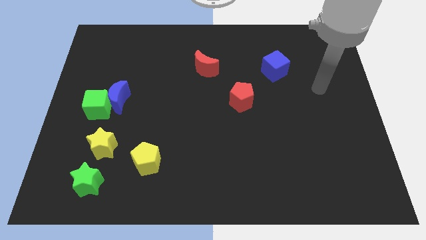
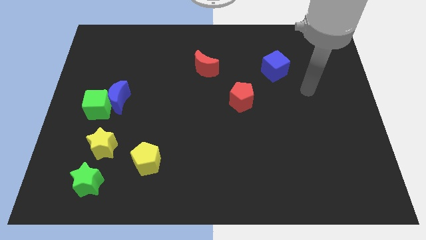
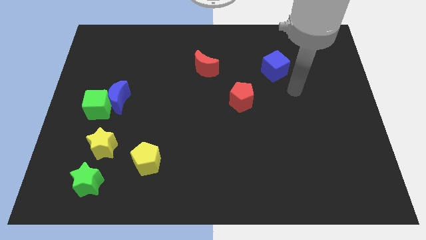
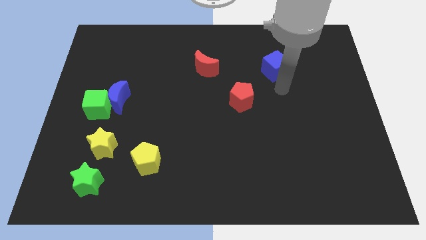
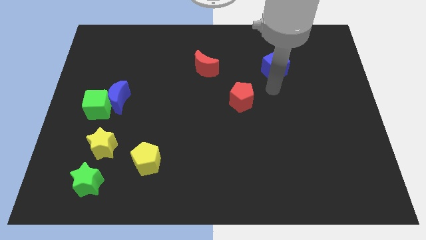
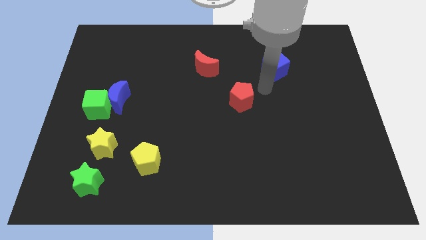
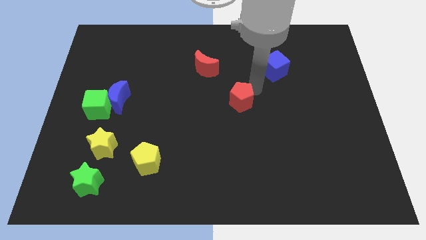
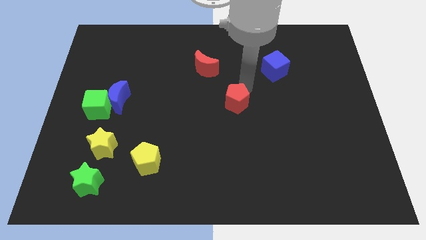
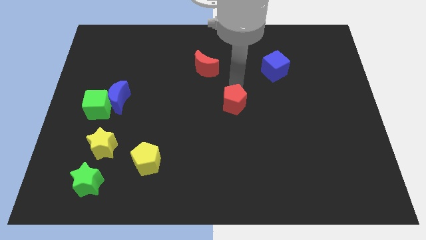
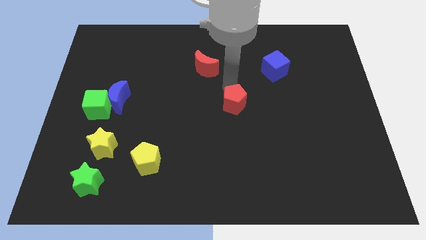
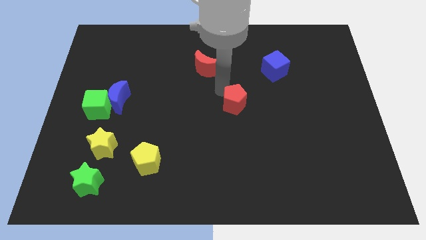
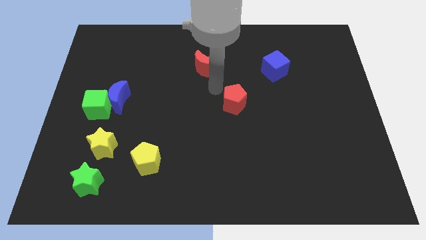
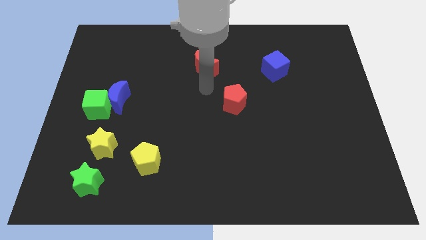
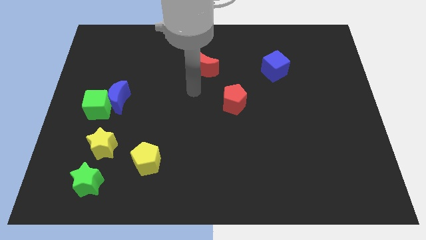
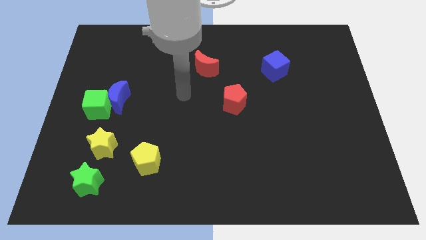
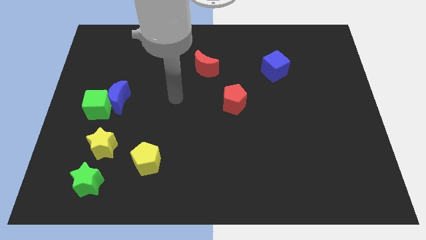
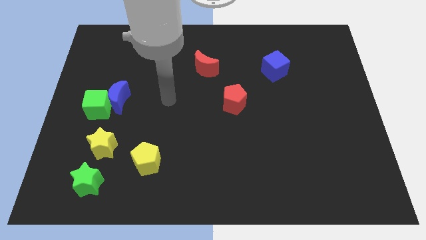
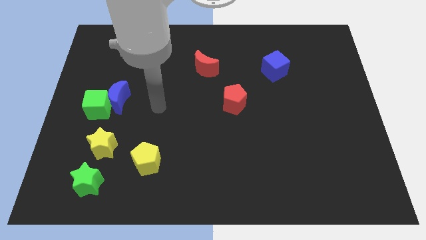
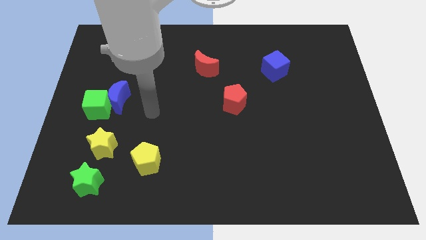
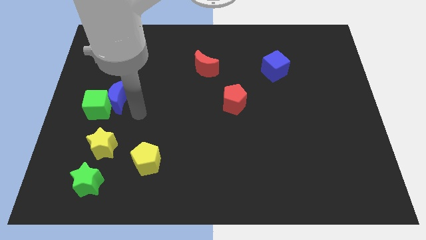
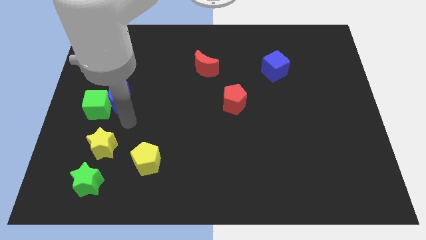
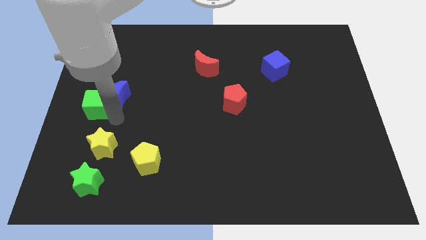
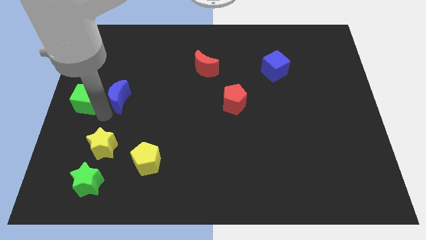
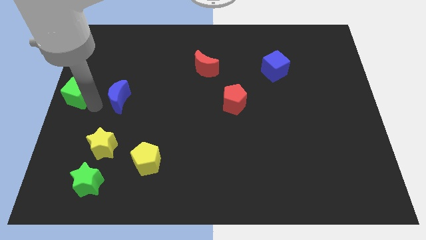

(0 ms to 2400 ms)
separate the blue moon from the green cube

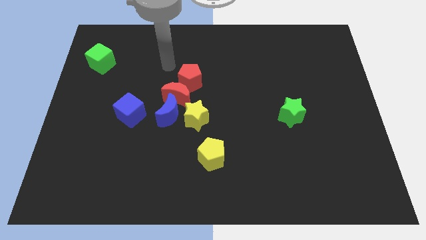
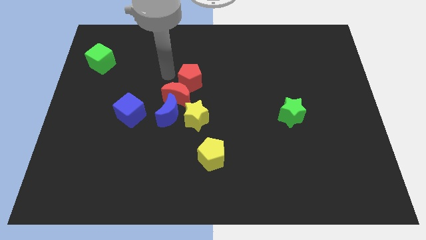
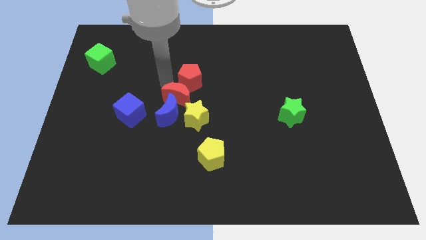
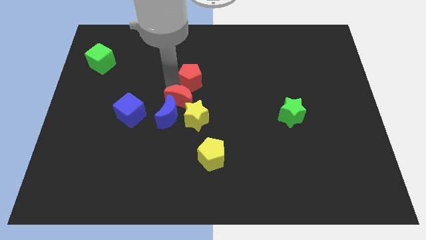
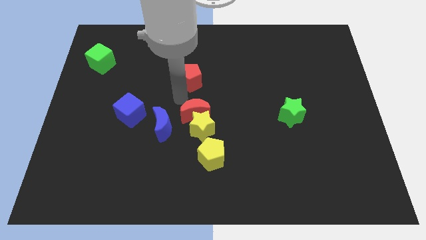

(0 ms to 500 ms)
separate the red pentagon from the red moon

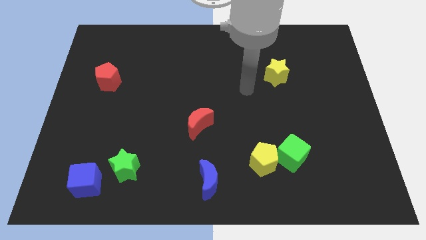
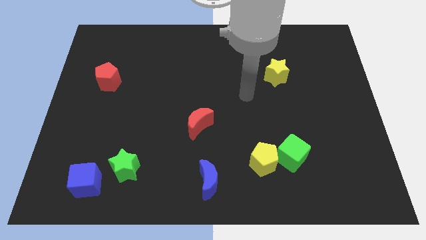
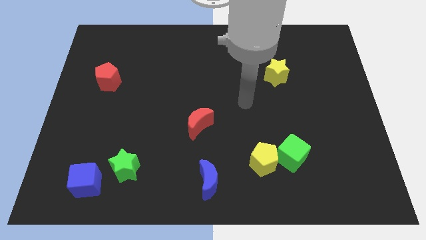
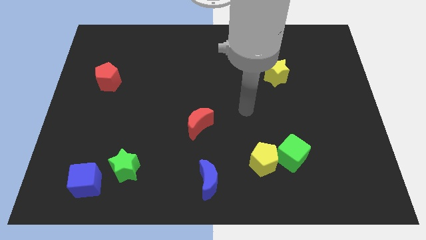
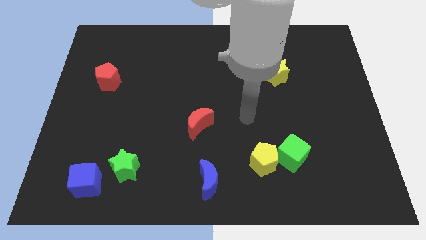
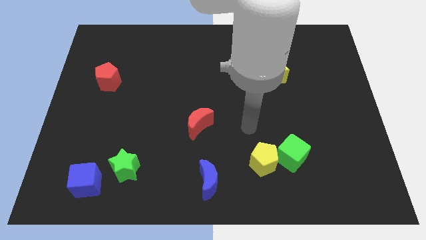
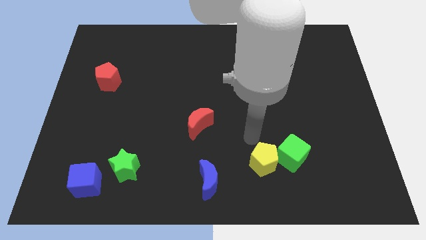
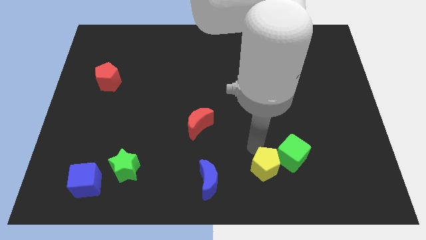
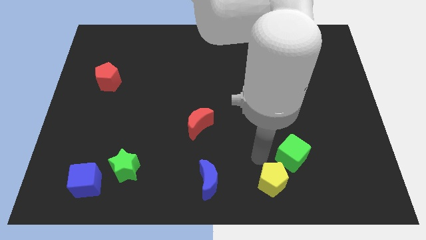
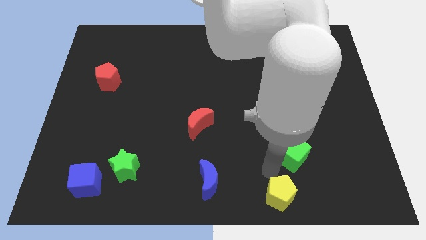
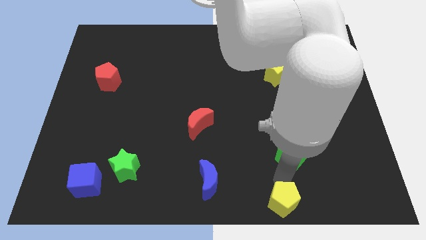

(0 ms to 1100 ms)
move the green cube away from the yellow pentagon

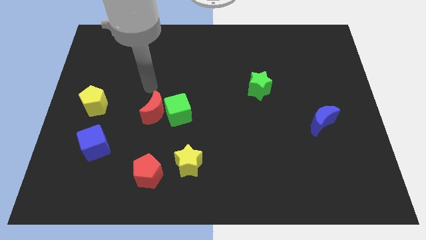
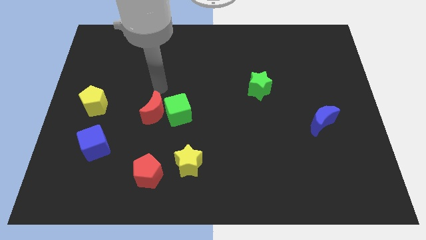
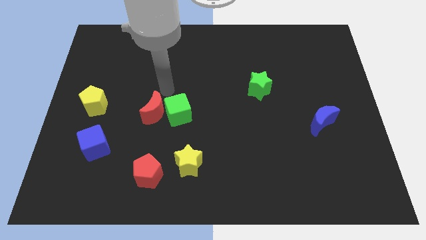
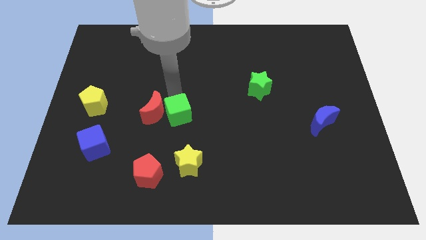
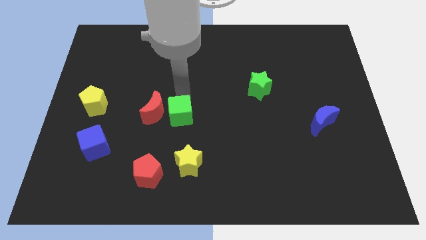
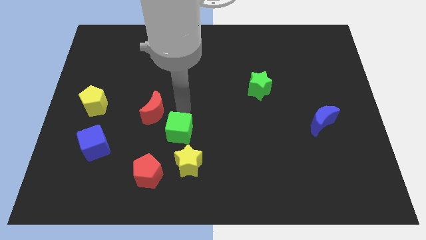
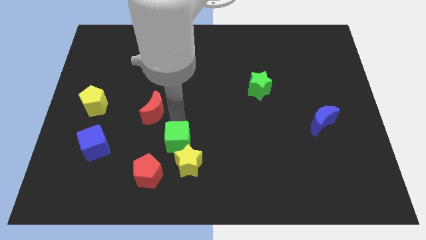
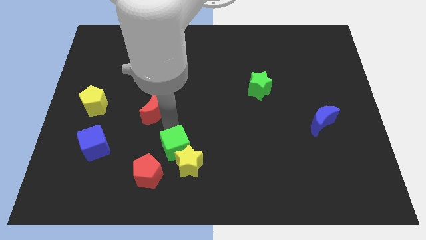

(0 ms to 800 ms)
move the red moon away from the green cube

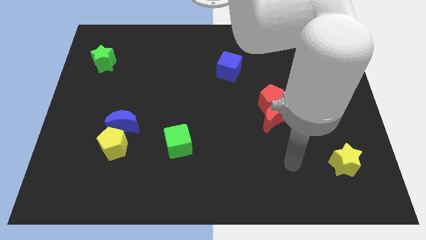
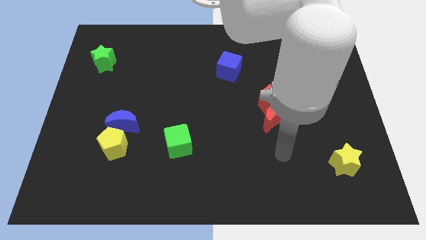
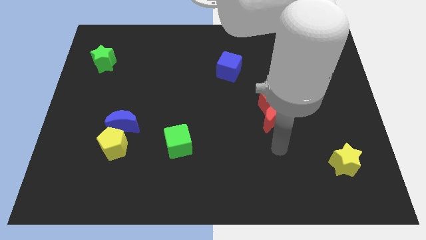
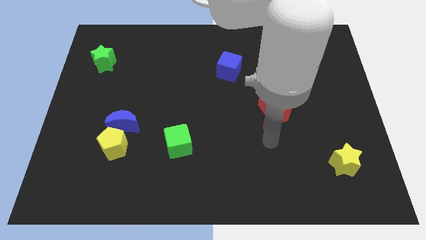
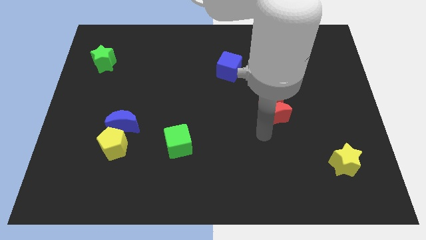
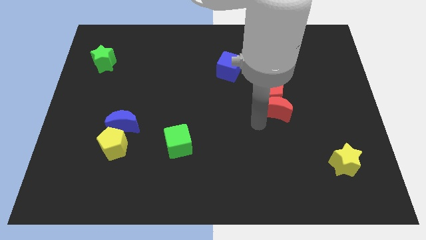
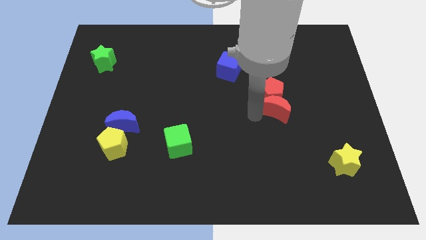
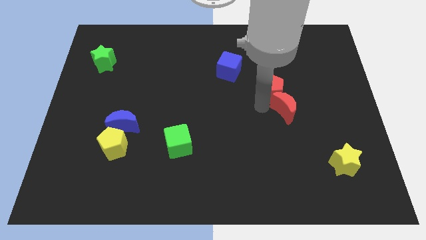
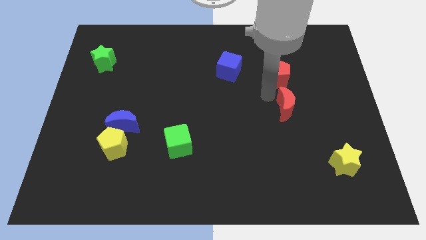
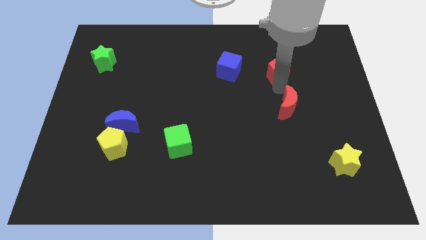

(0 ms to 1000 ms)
pull the red moon apart from the red pentagon

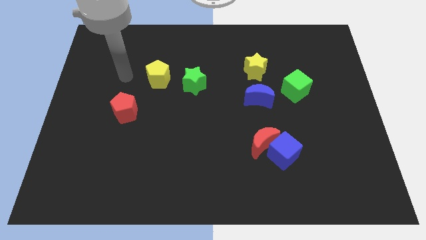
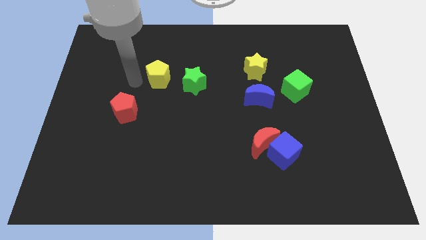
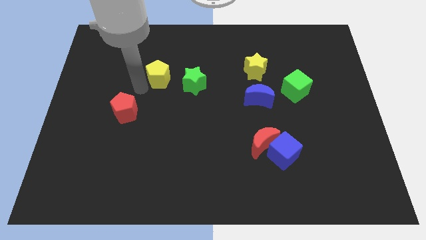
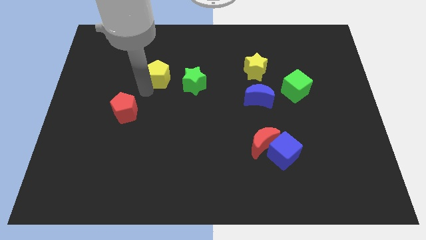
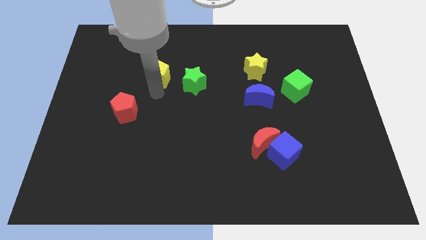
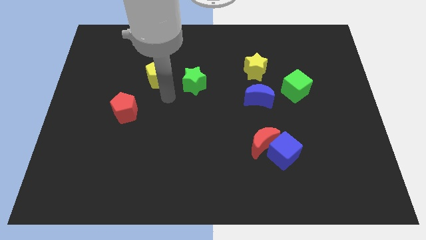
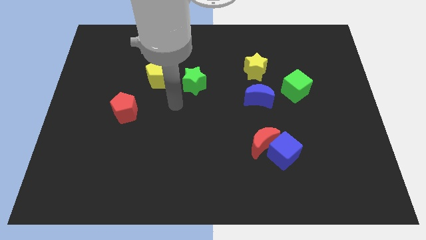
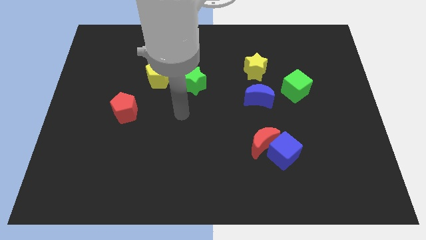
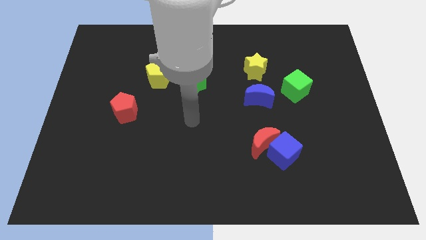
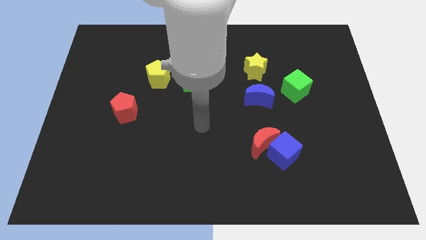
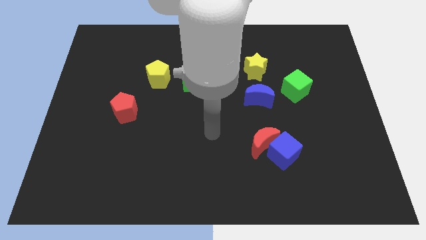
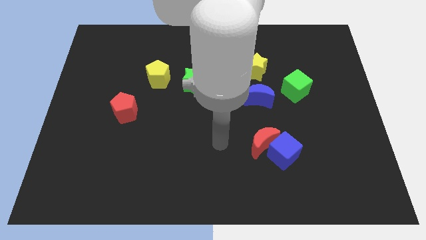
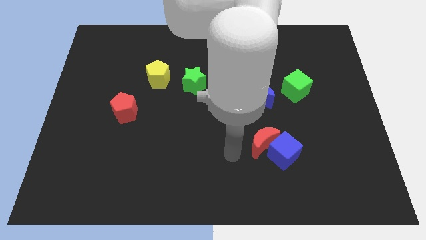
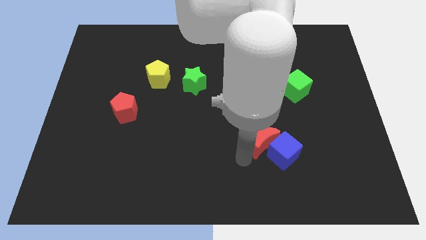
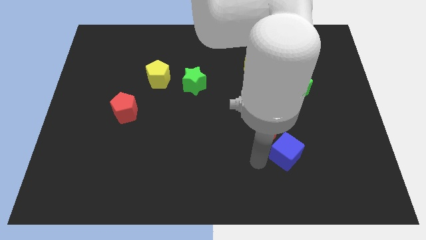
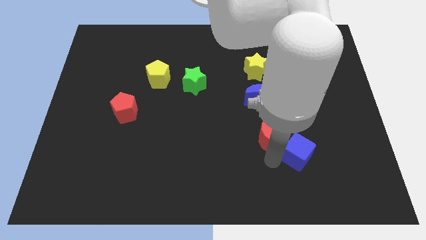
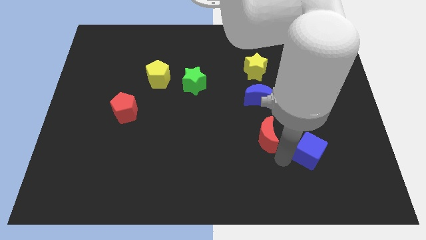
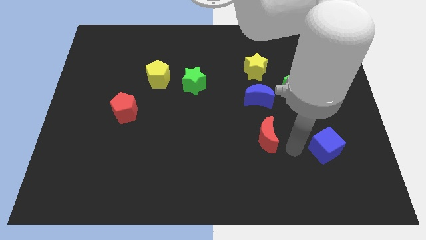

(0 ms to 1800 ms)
pull the red moon apart from the blue cube

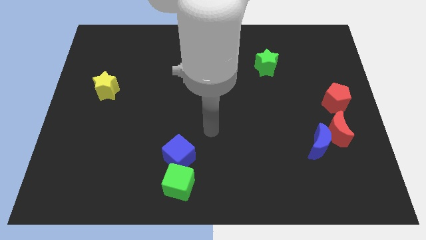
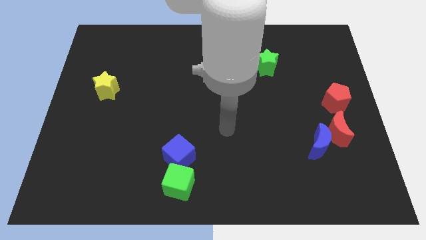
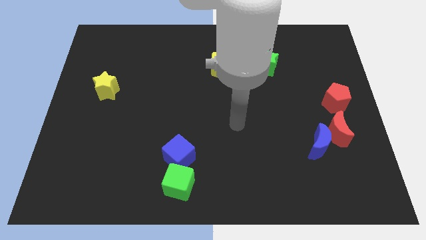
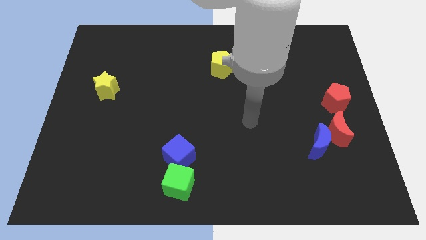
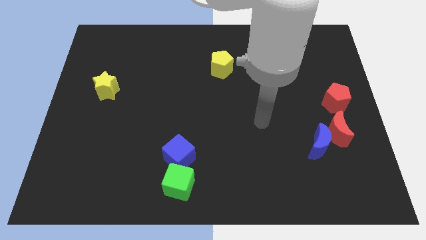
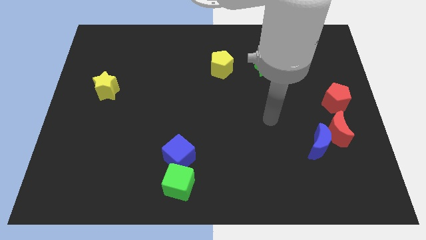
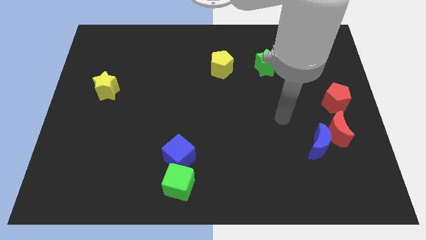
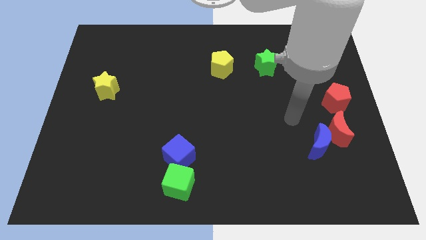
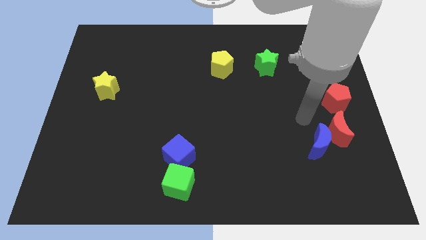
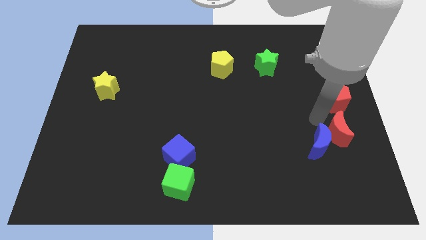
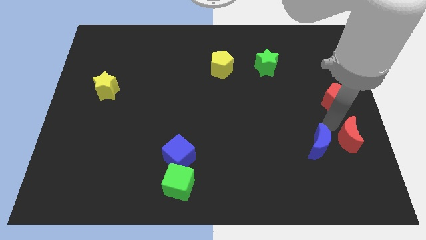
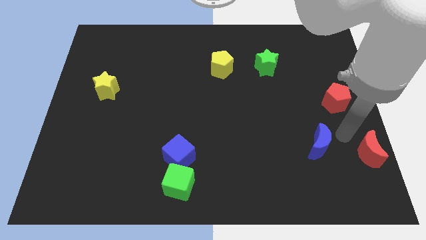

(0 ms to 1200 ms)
separate the blue moon from the red moon

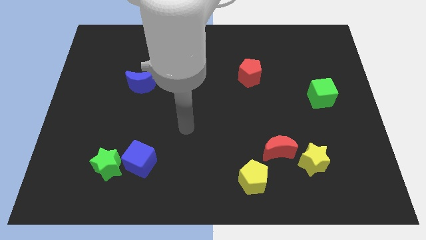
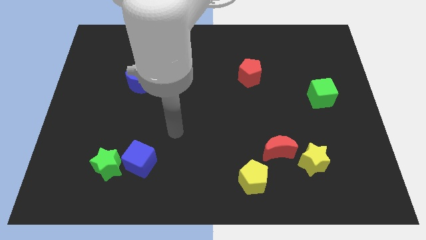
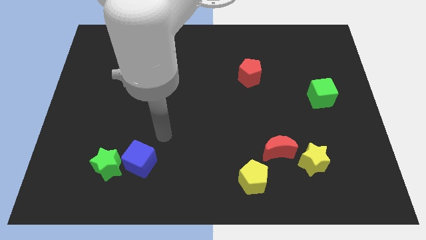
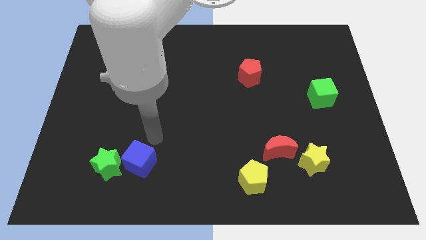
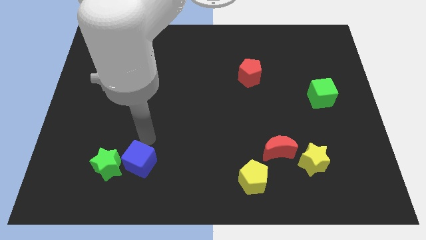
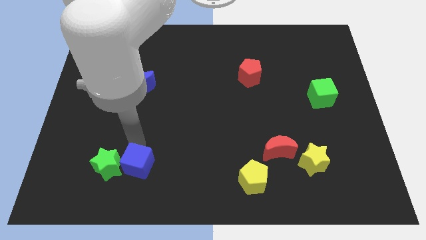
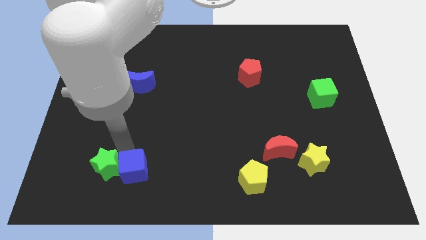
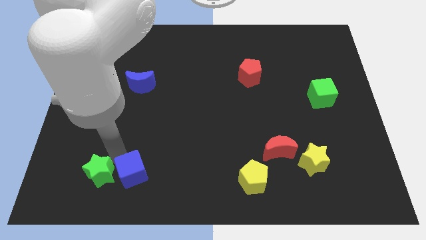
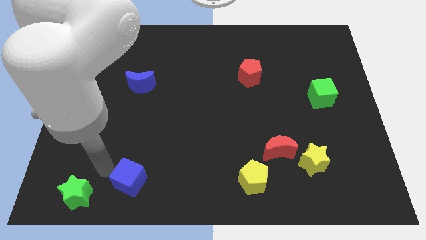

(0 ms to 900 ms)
move the blue cube away from the green star
